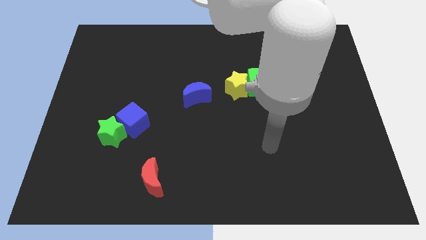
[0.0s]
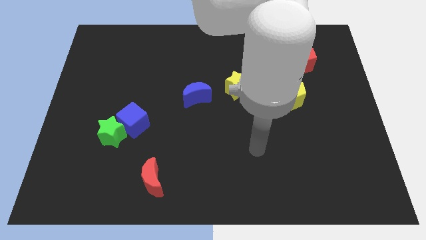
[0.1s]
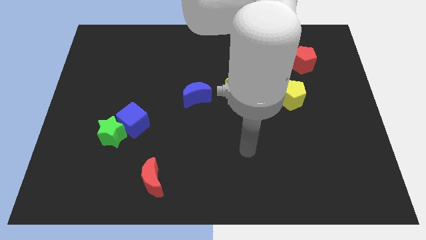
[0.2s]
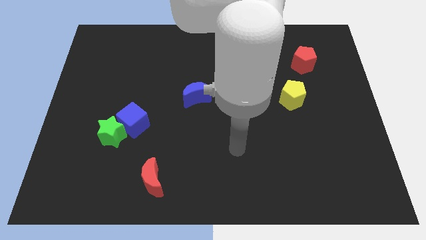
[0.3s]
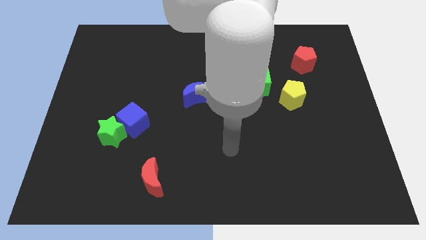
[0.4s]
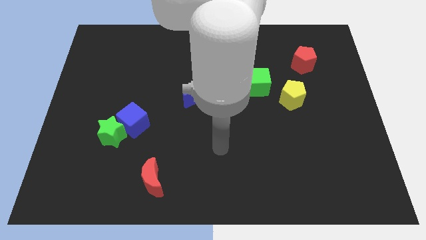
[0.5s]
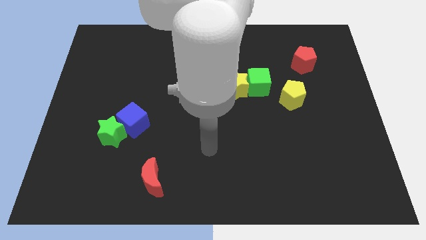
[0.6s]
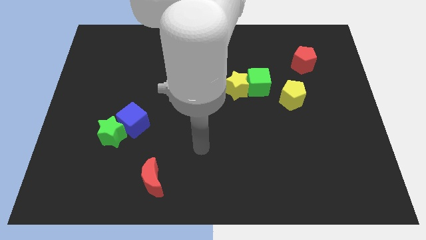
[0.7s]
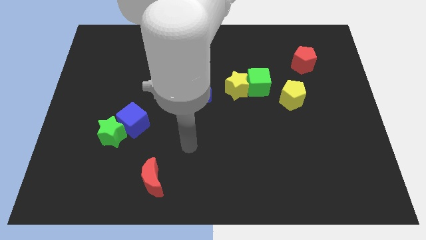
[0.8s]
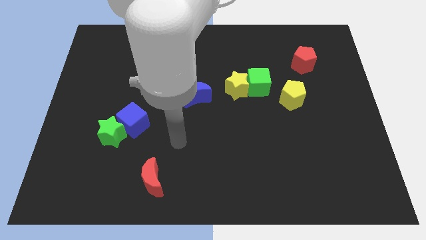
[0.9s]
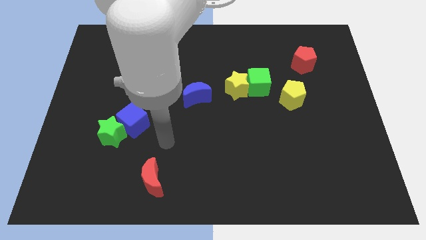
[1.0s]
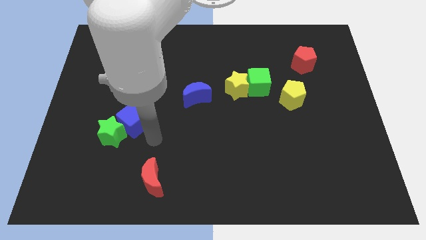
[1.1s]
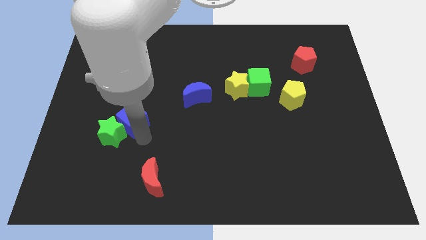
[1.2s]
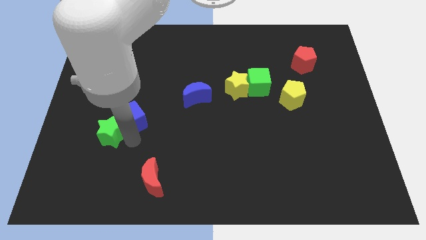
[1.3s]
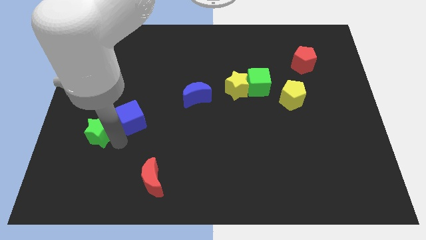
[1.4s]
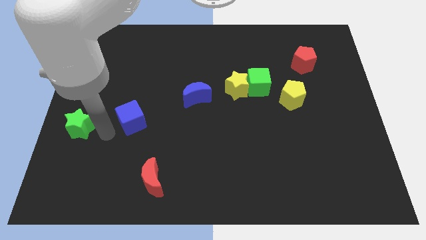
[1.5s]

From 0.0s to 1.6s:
pull the blue cube apart from the green star

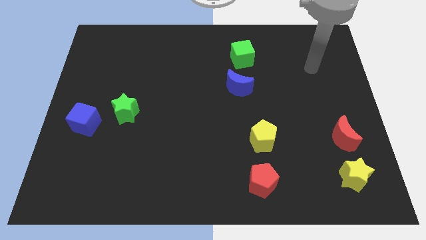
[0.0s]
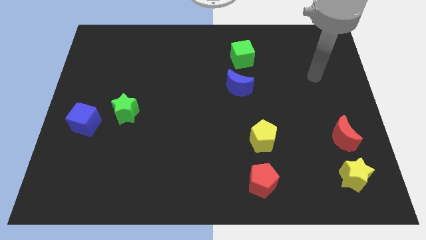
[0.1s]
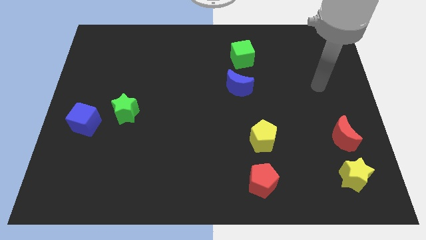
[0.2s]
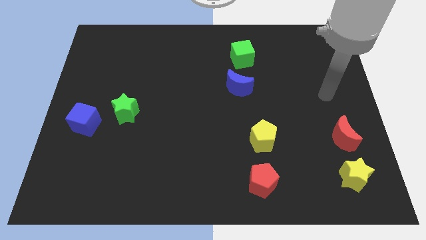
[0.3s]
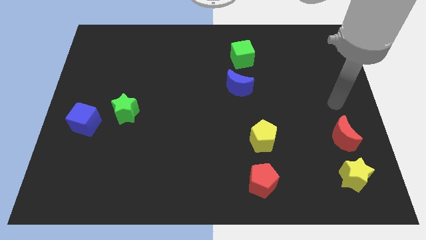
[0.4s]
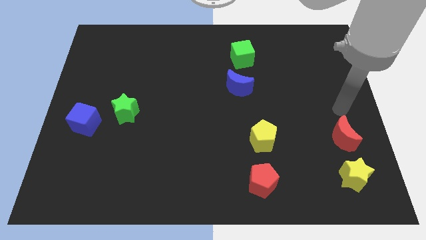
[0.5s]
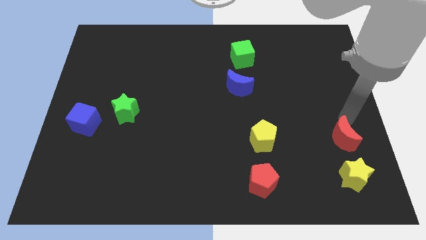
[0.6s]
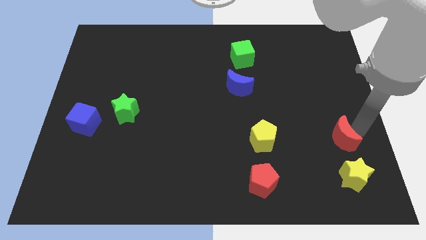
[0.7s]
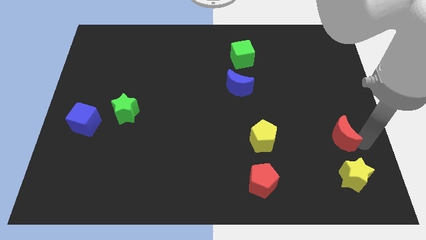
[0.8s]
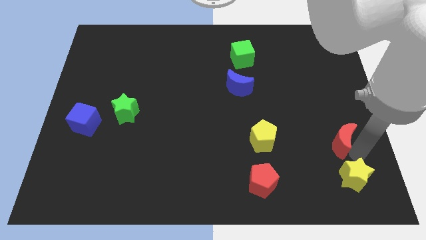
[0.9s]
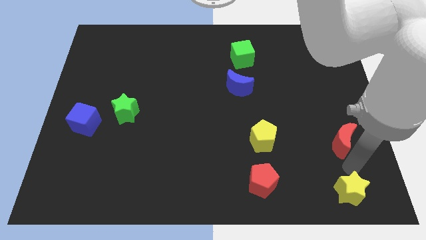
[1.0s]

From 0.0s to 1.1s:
pull the red moon apart from the yellow star

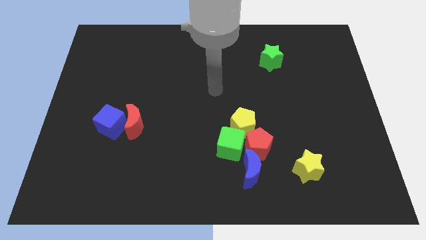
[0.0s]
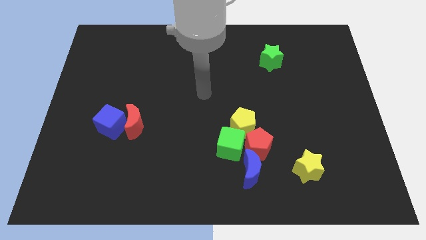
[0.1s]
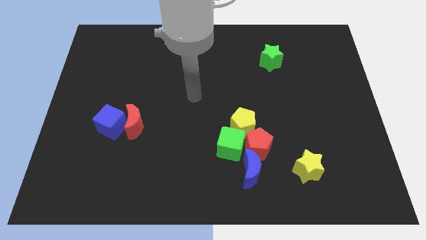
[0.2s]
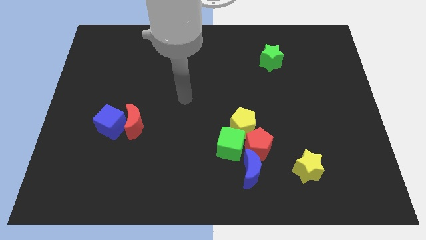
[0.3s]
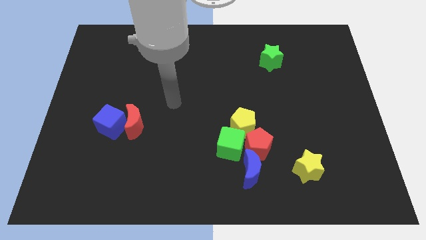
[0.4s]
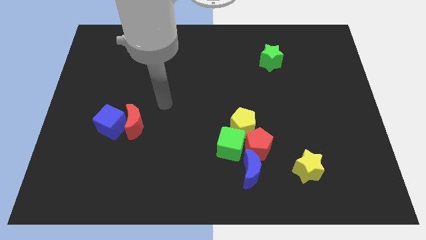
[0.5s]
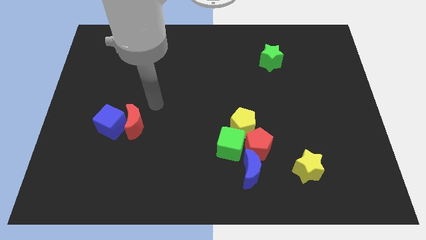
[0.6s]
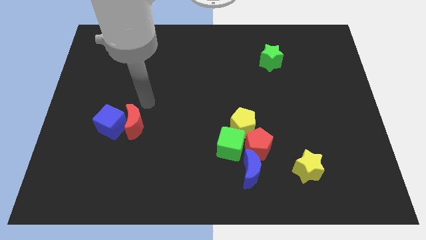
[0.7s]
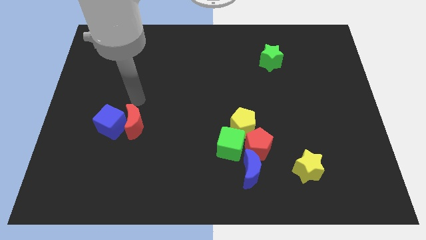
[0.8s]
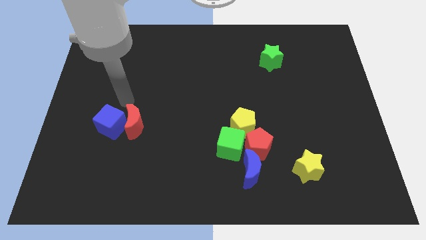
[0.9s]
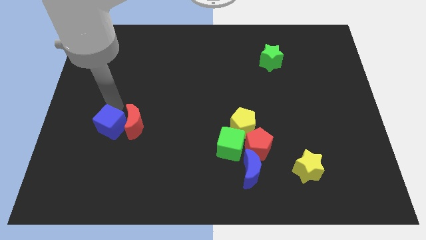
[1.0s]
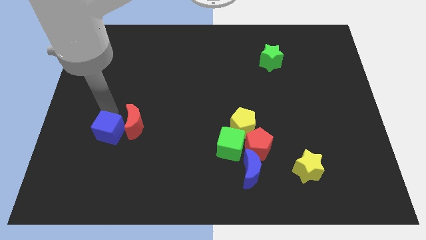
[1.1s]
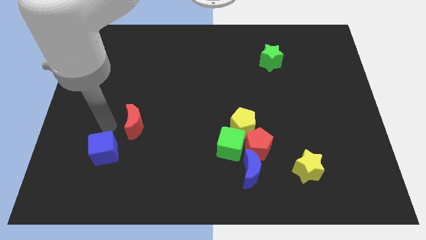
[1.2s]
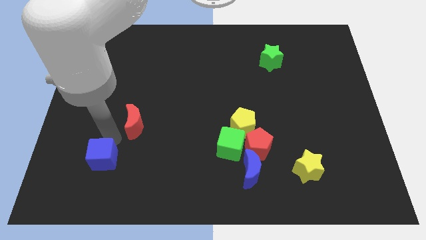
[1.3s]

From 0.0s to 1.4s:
separate the red moon from the blue cube

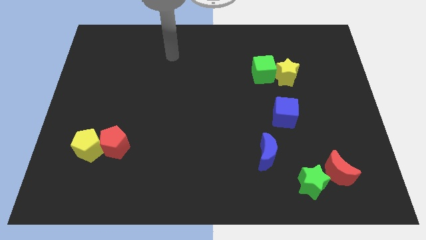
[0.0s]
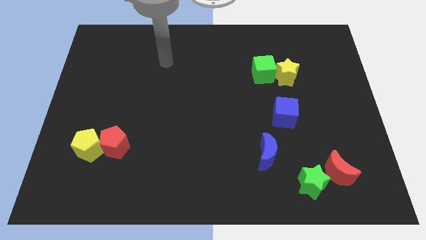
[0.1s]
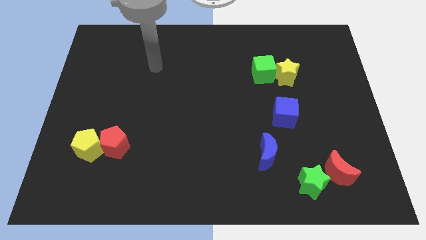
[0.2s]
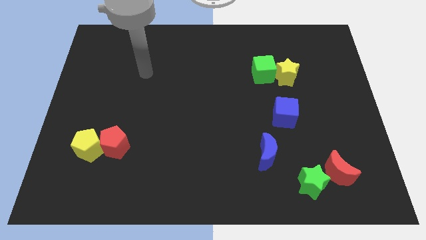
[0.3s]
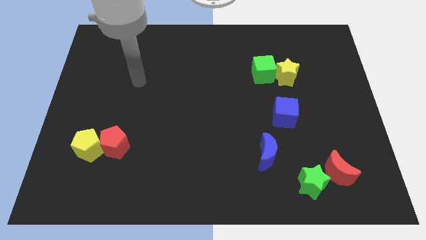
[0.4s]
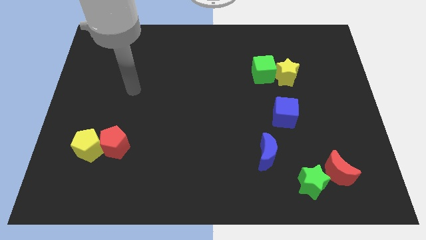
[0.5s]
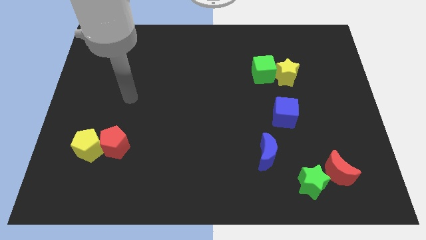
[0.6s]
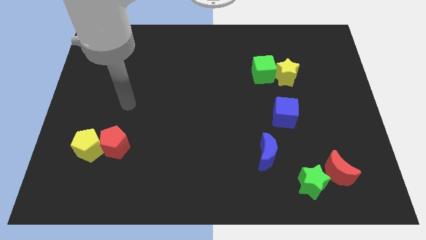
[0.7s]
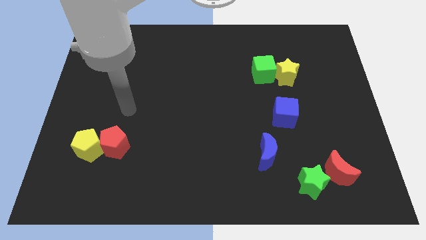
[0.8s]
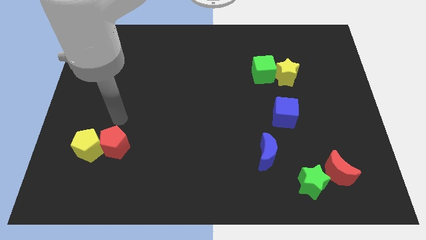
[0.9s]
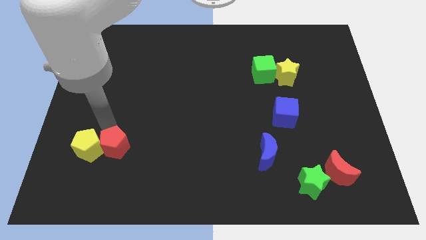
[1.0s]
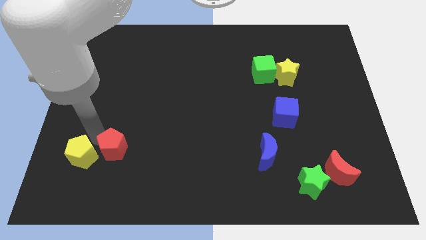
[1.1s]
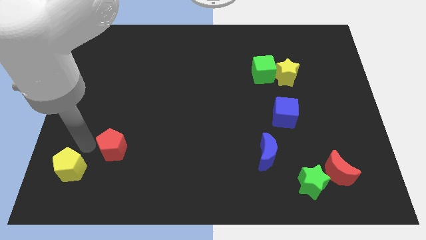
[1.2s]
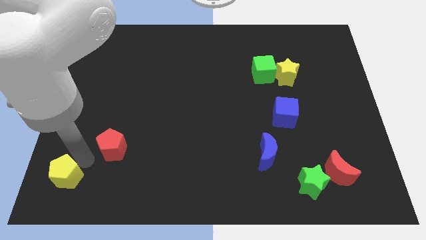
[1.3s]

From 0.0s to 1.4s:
separate the red pentagon from the yellow pentagon

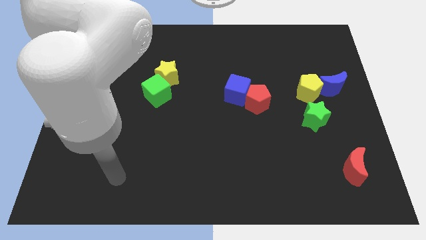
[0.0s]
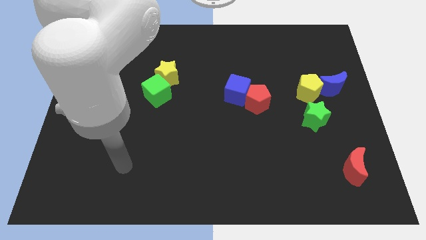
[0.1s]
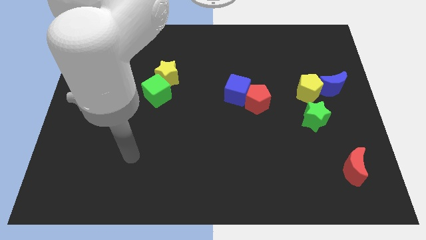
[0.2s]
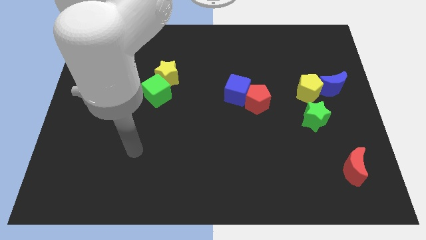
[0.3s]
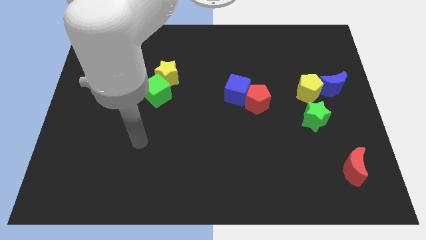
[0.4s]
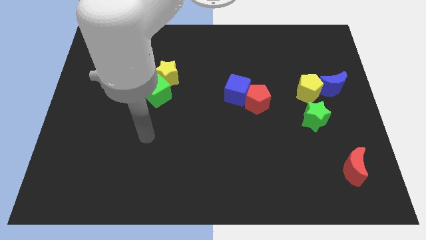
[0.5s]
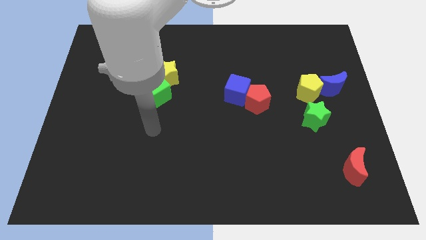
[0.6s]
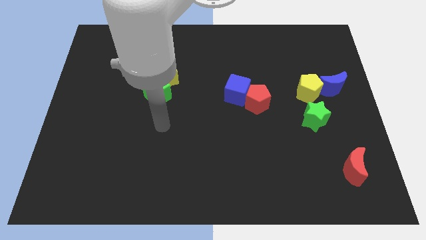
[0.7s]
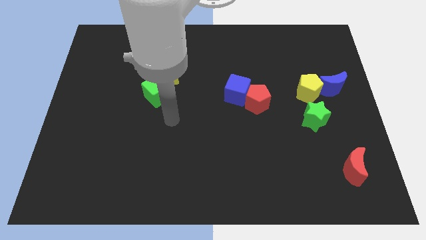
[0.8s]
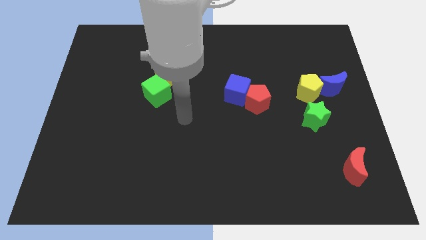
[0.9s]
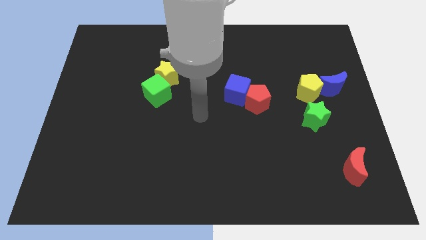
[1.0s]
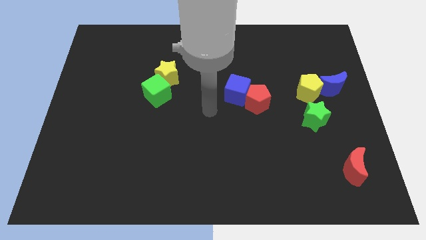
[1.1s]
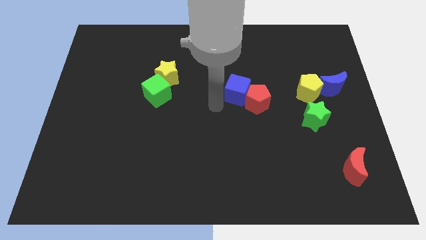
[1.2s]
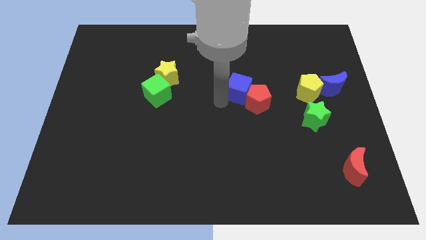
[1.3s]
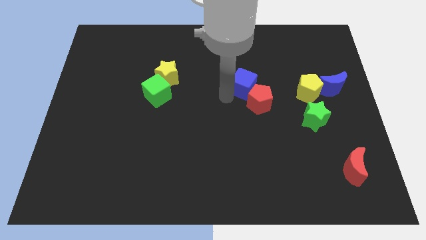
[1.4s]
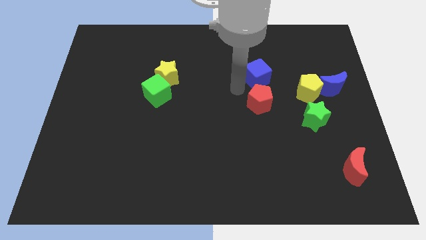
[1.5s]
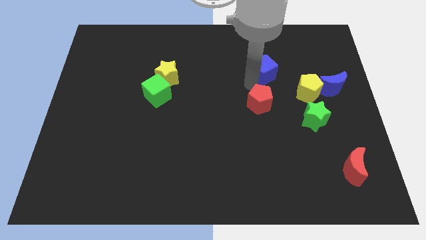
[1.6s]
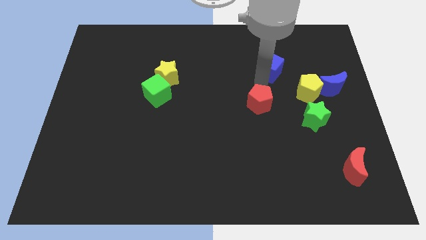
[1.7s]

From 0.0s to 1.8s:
move the red pentagon away from the blue cube

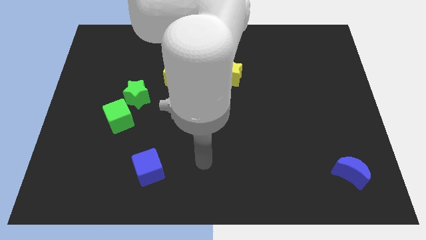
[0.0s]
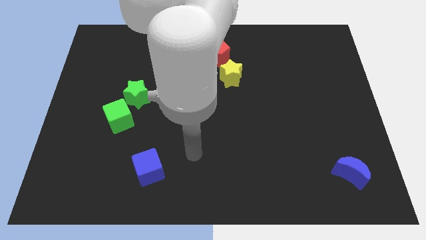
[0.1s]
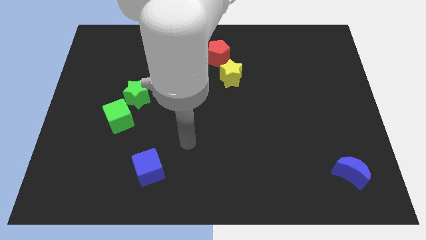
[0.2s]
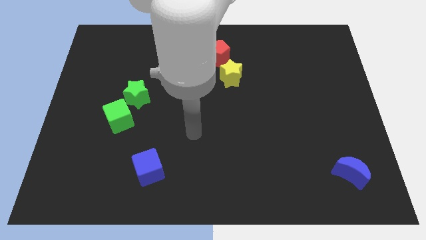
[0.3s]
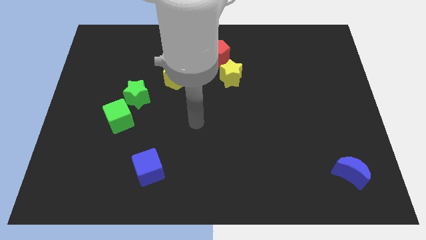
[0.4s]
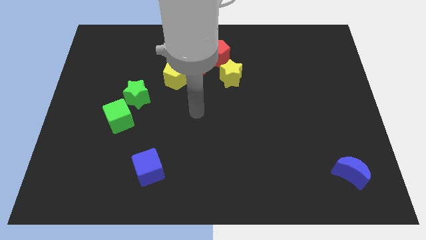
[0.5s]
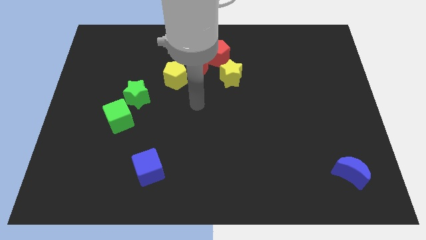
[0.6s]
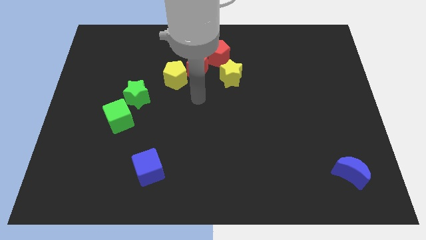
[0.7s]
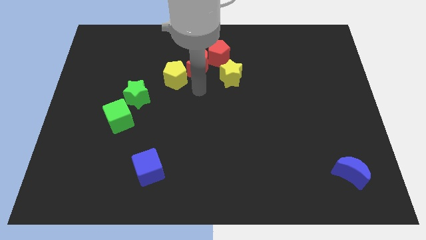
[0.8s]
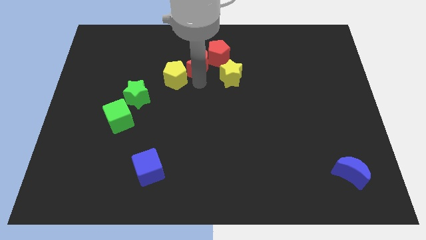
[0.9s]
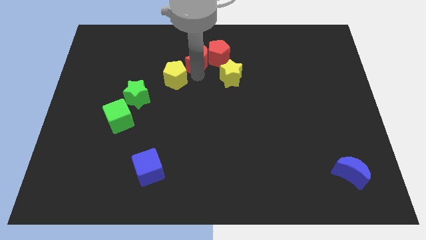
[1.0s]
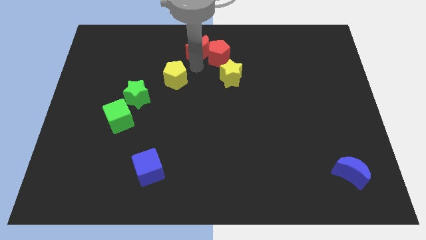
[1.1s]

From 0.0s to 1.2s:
pull the yellow pentagon apart from the red moon

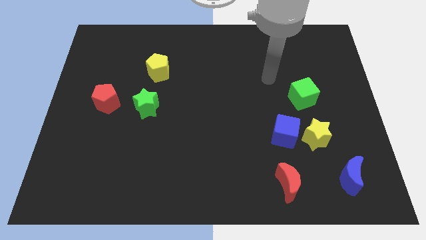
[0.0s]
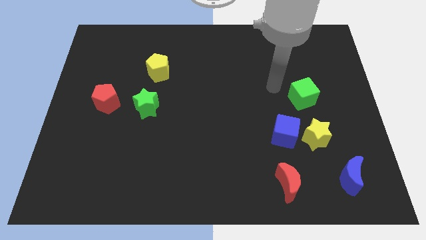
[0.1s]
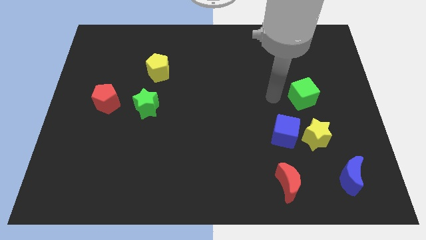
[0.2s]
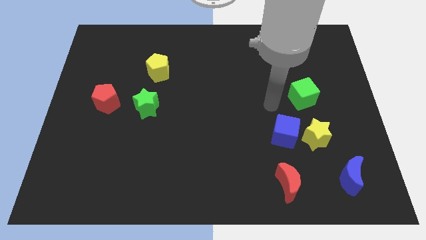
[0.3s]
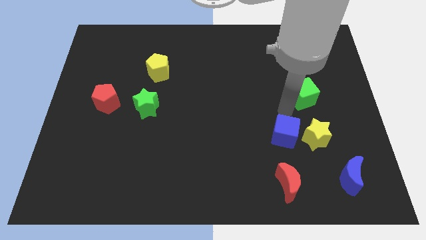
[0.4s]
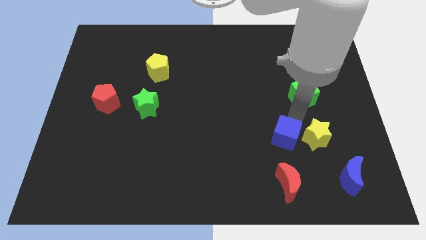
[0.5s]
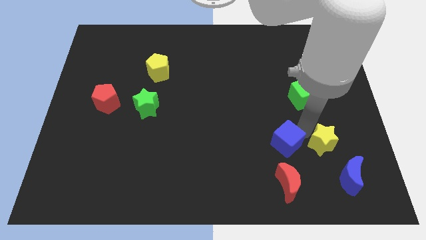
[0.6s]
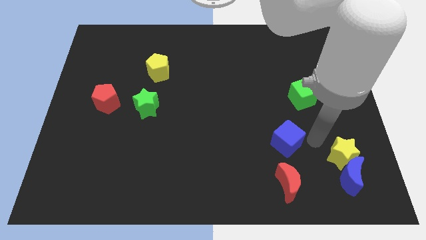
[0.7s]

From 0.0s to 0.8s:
separate the blue cube from the yellow star
